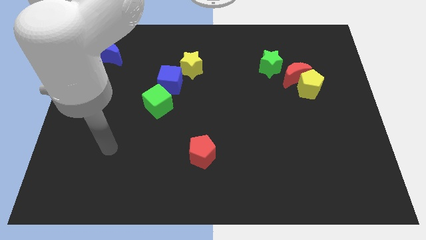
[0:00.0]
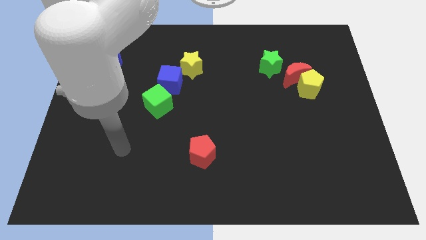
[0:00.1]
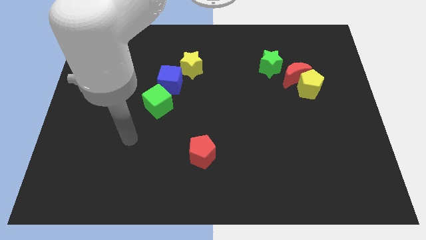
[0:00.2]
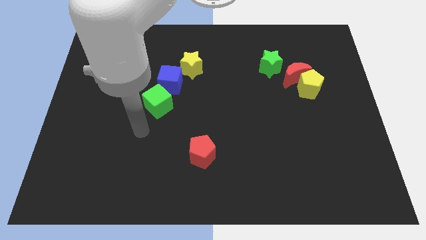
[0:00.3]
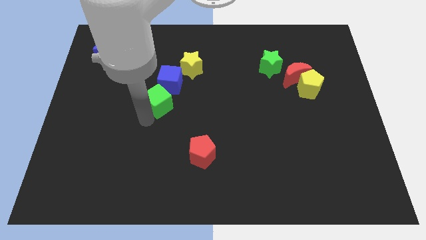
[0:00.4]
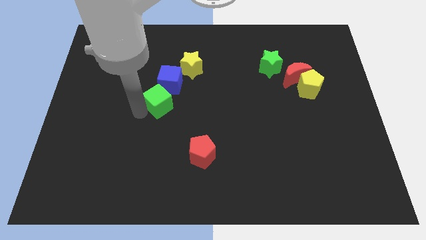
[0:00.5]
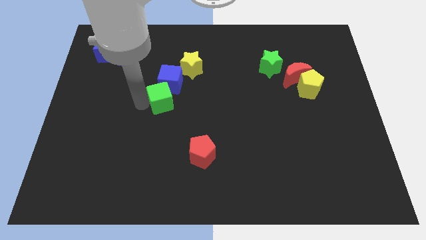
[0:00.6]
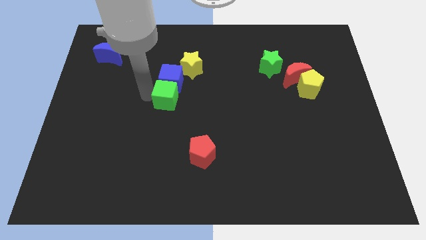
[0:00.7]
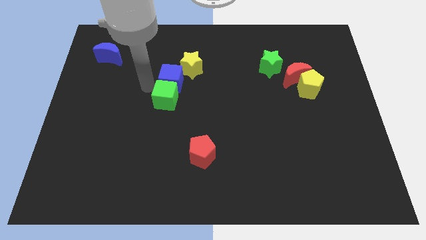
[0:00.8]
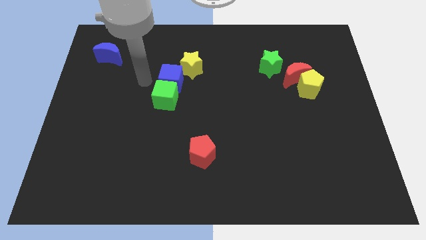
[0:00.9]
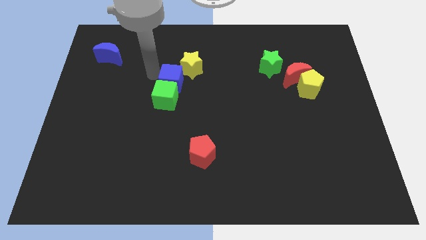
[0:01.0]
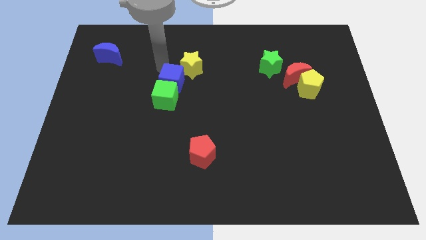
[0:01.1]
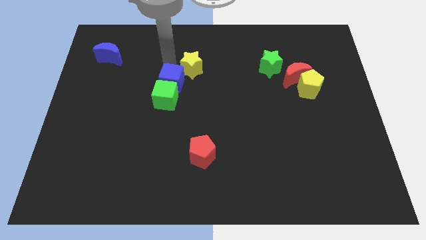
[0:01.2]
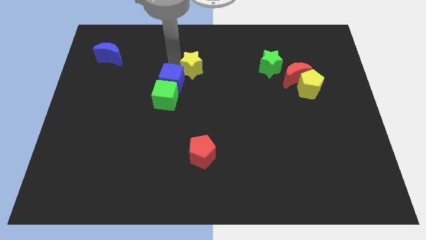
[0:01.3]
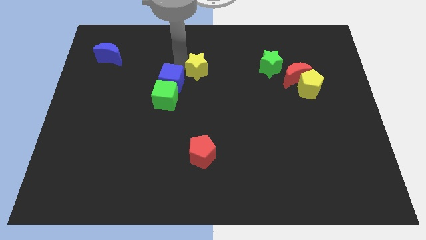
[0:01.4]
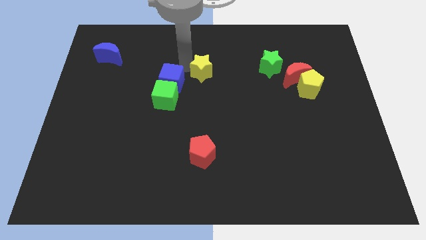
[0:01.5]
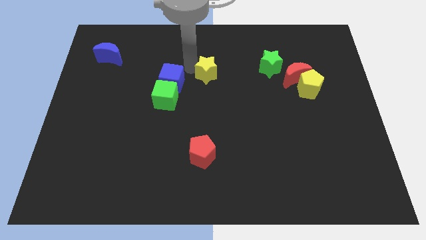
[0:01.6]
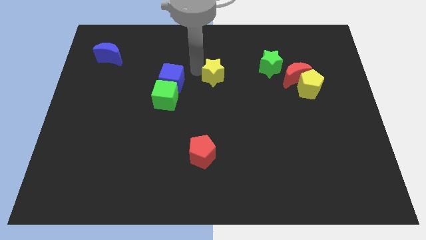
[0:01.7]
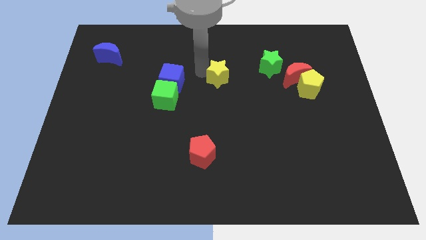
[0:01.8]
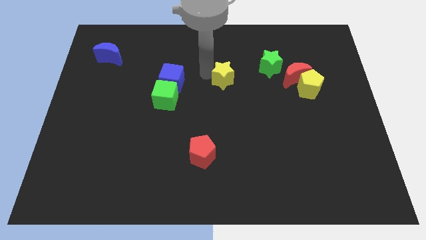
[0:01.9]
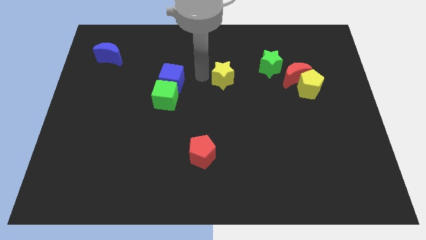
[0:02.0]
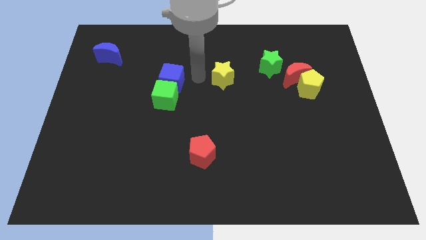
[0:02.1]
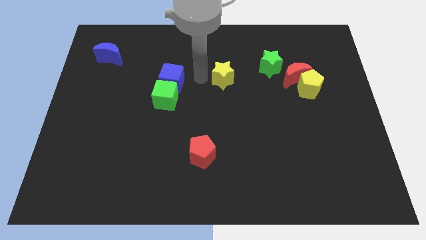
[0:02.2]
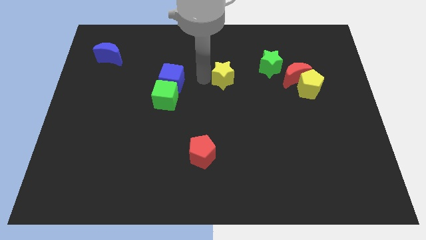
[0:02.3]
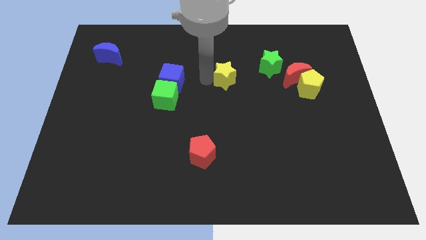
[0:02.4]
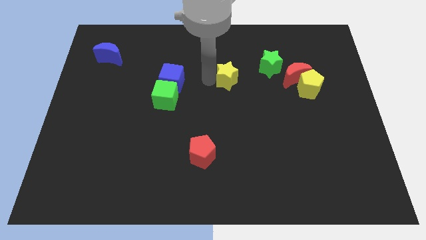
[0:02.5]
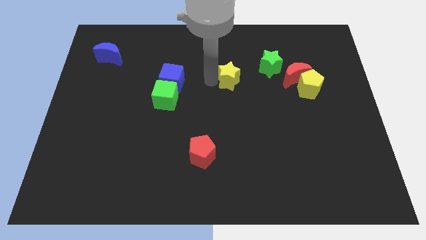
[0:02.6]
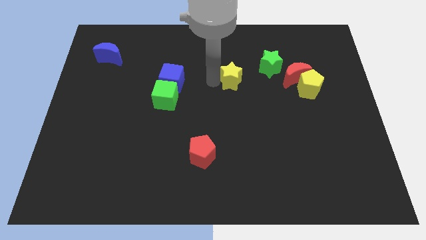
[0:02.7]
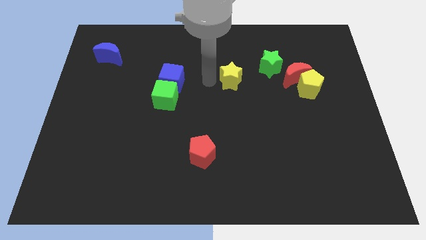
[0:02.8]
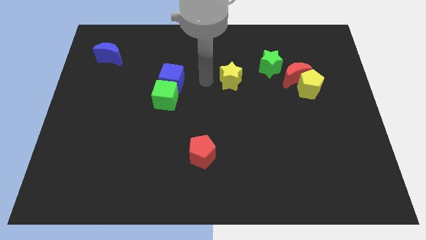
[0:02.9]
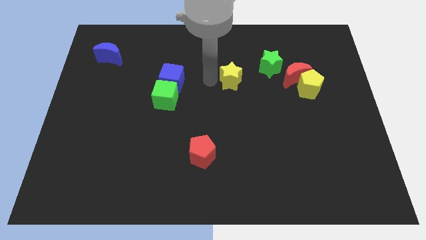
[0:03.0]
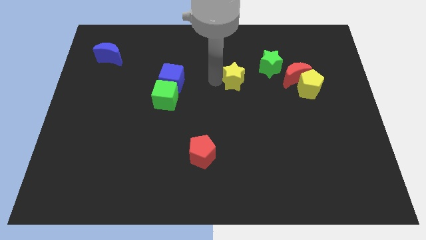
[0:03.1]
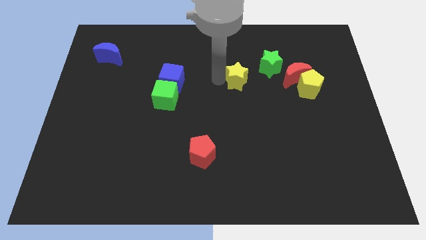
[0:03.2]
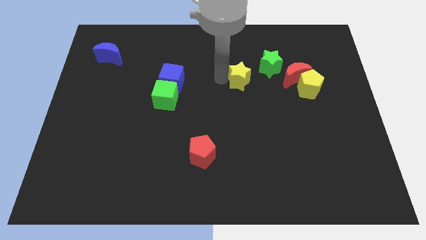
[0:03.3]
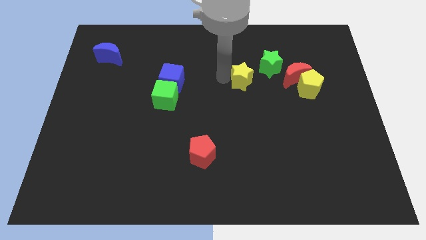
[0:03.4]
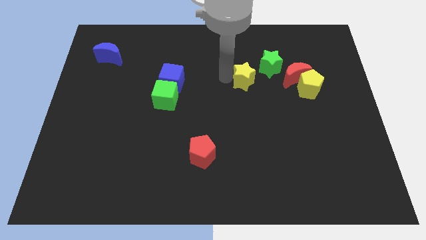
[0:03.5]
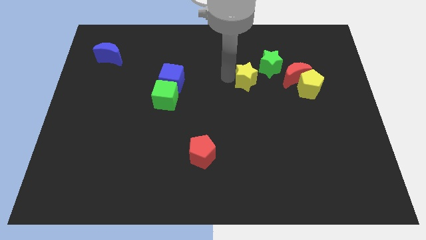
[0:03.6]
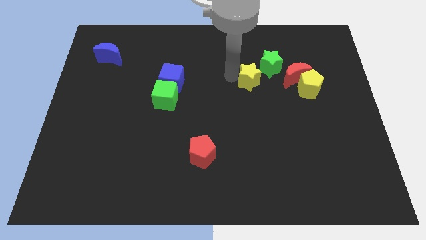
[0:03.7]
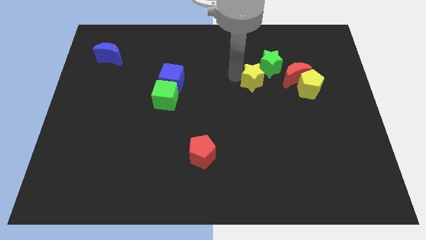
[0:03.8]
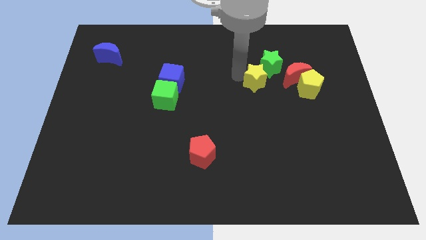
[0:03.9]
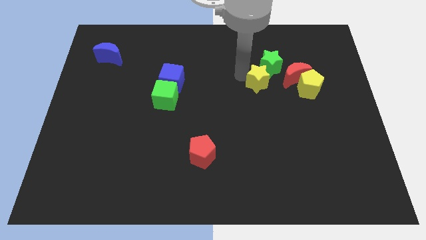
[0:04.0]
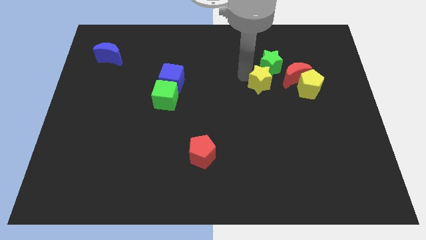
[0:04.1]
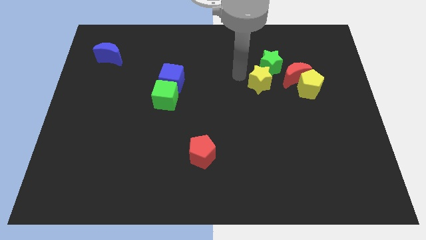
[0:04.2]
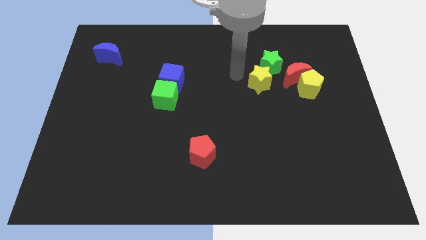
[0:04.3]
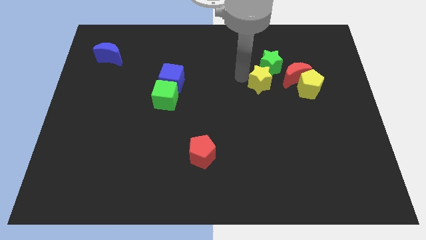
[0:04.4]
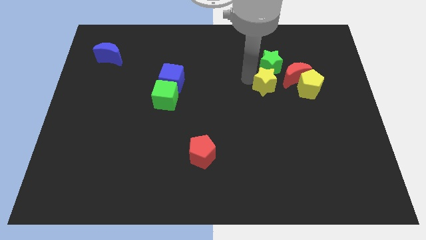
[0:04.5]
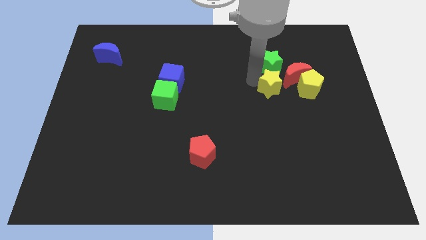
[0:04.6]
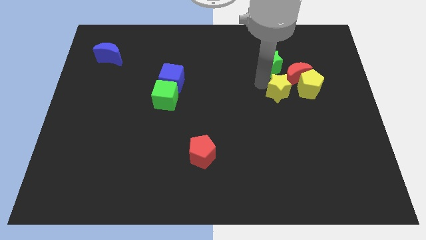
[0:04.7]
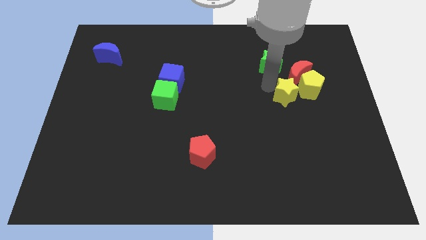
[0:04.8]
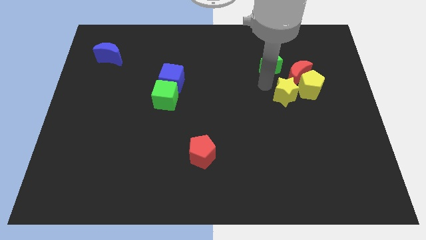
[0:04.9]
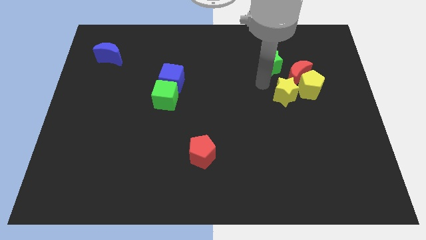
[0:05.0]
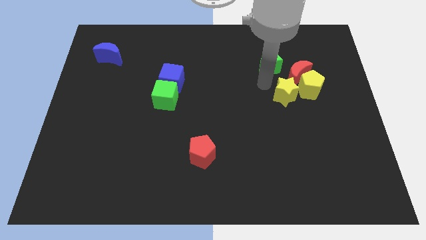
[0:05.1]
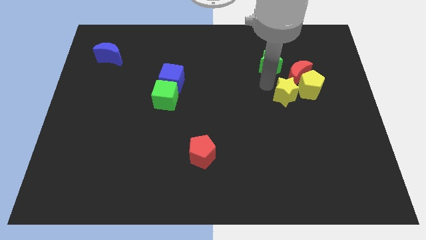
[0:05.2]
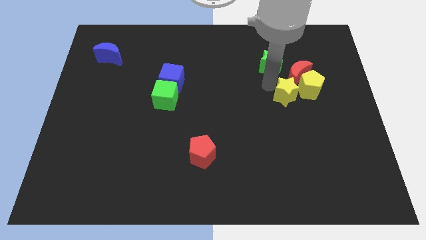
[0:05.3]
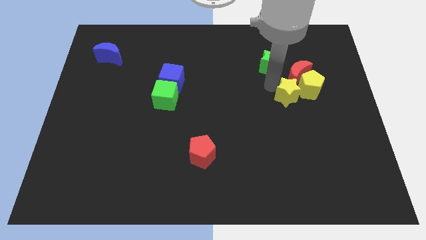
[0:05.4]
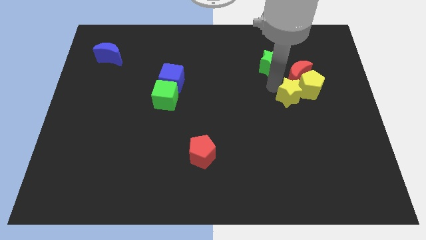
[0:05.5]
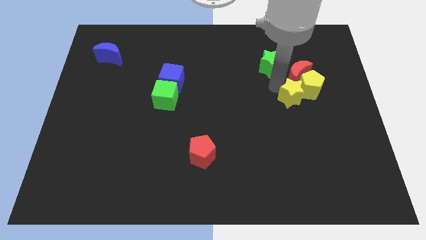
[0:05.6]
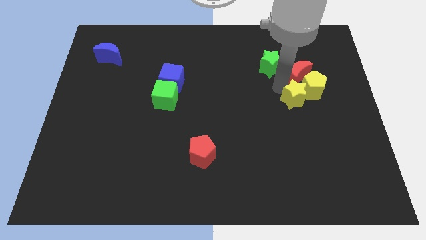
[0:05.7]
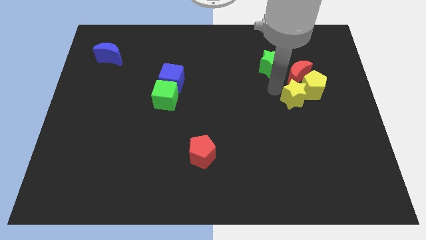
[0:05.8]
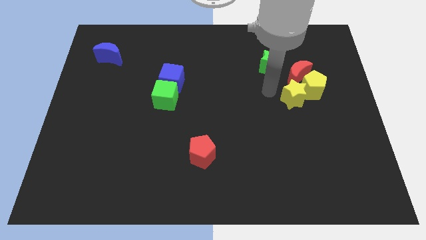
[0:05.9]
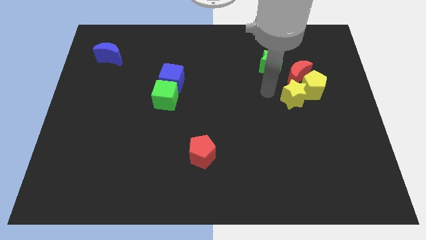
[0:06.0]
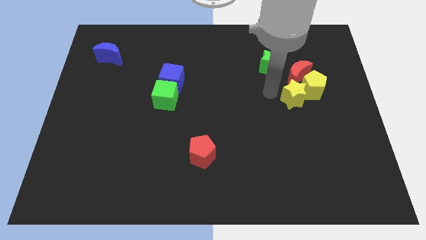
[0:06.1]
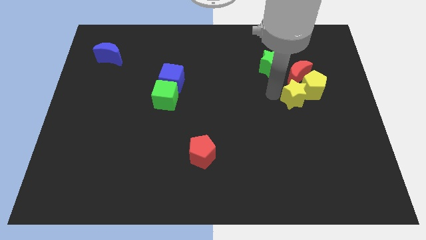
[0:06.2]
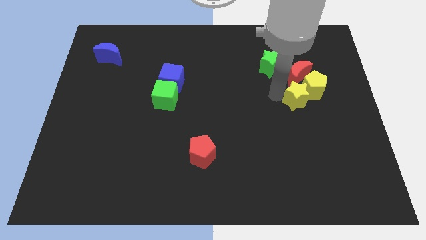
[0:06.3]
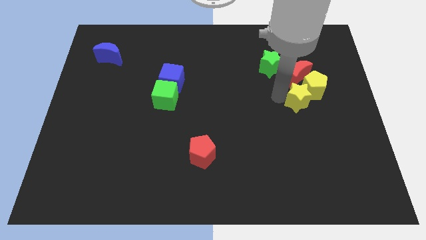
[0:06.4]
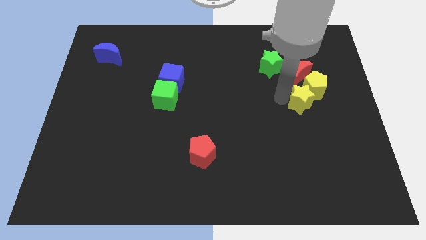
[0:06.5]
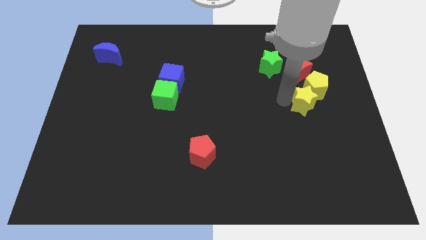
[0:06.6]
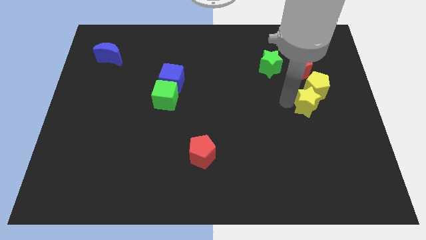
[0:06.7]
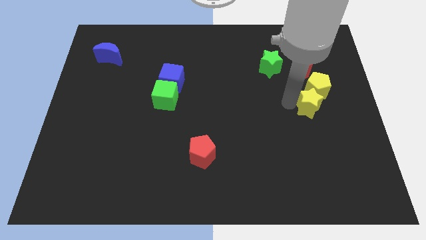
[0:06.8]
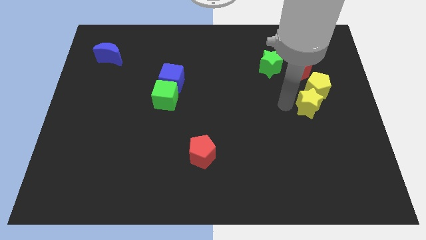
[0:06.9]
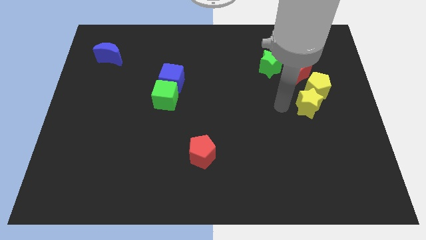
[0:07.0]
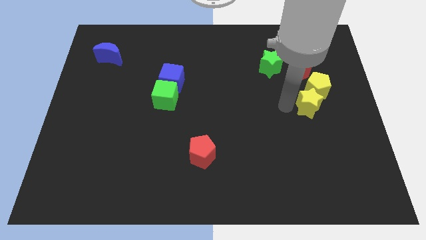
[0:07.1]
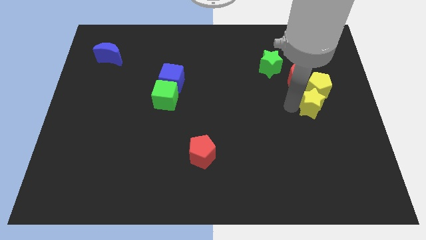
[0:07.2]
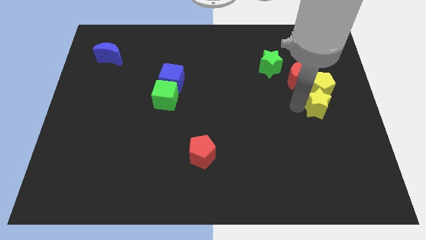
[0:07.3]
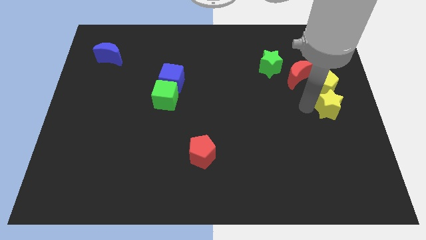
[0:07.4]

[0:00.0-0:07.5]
put the yellow star to the right side
